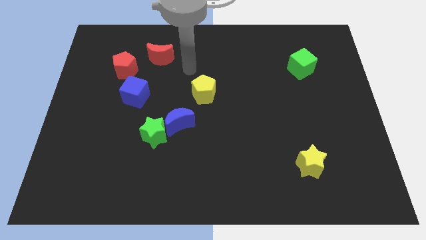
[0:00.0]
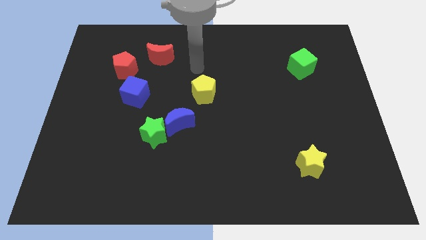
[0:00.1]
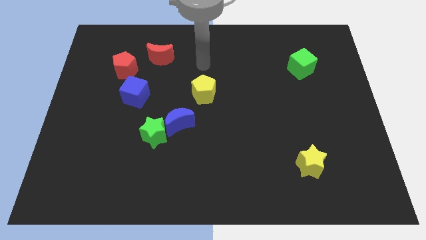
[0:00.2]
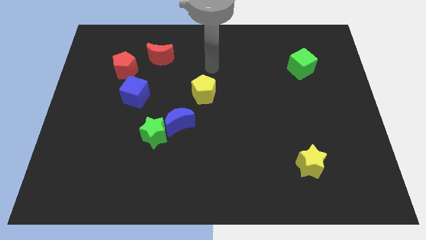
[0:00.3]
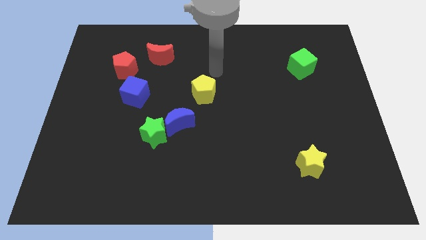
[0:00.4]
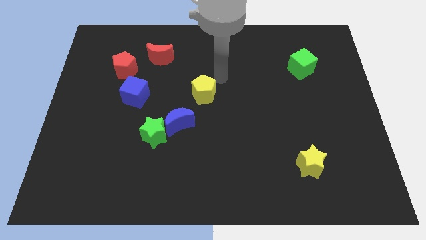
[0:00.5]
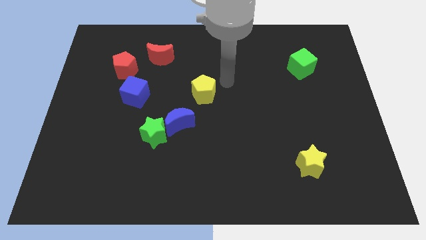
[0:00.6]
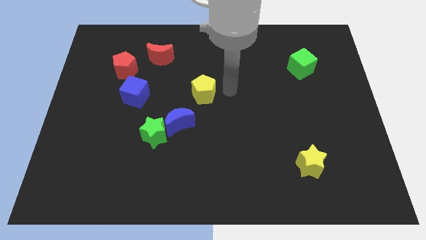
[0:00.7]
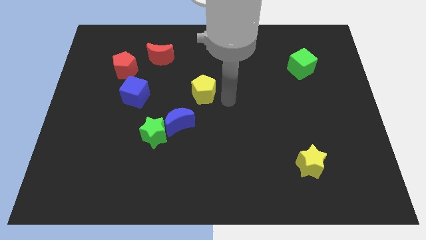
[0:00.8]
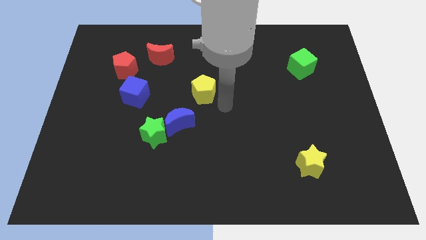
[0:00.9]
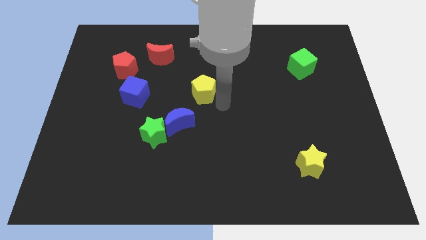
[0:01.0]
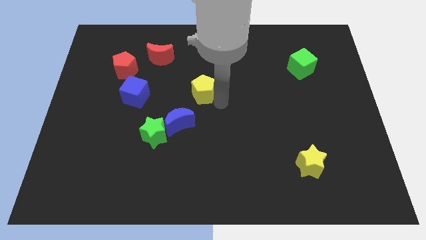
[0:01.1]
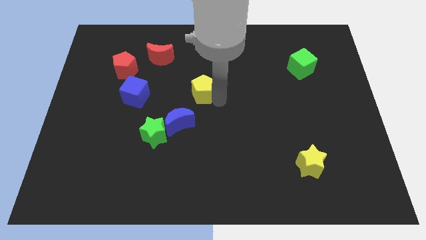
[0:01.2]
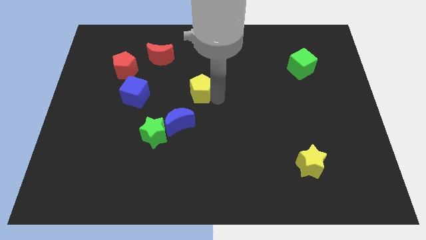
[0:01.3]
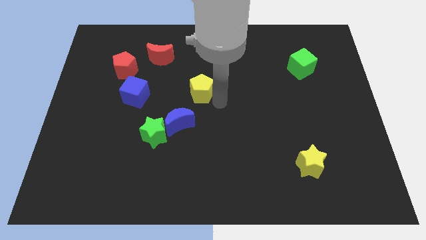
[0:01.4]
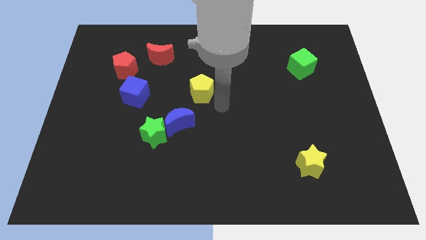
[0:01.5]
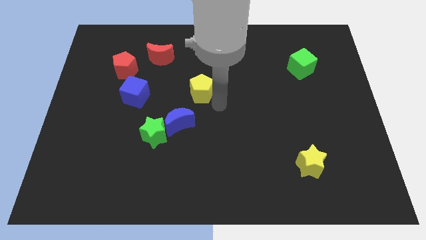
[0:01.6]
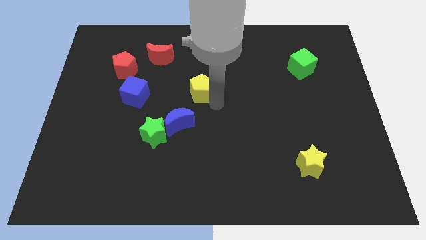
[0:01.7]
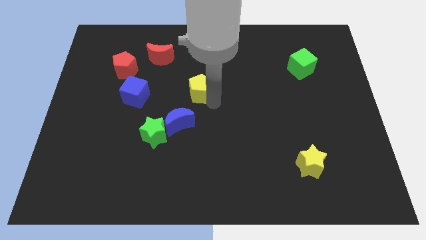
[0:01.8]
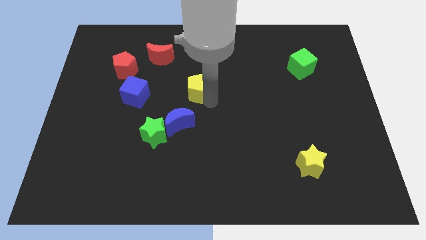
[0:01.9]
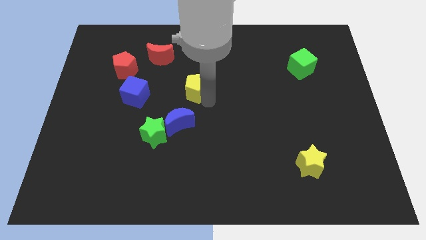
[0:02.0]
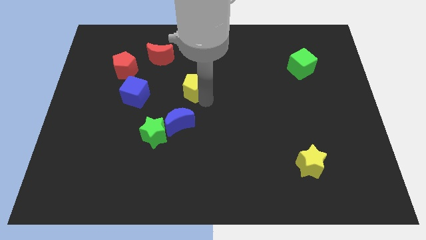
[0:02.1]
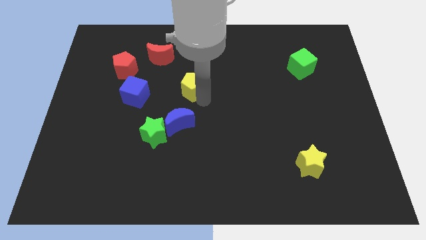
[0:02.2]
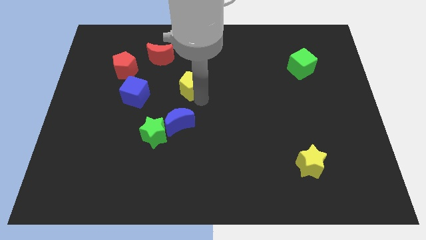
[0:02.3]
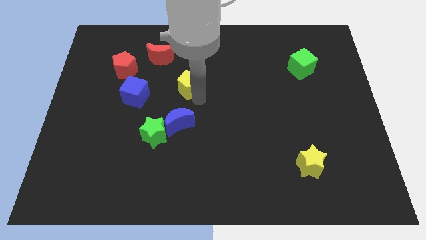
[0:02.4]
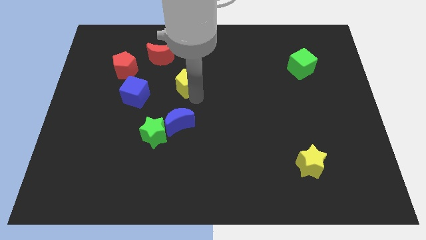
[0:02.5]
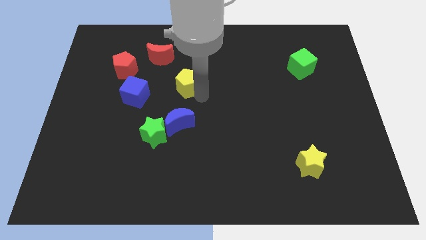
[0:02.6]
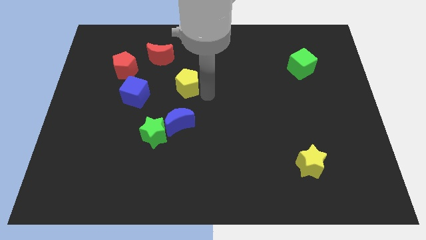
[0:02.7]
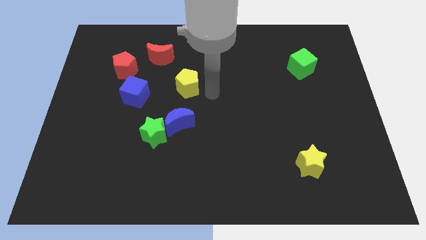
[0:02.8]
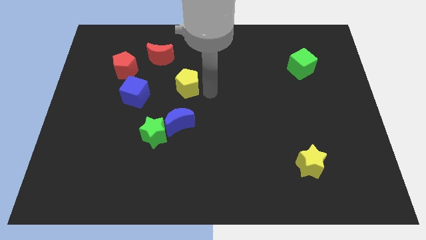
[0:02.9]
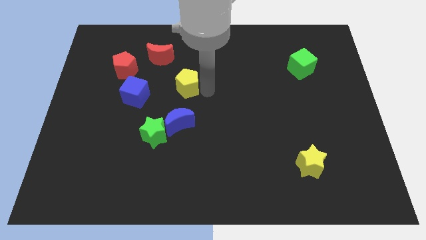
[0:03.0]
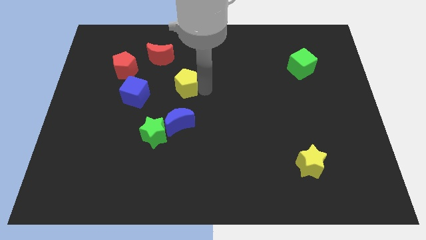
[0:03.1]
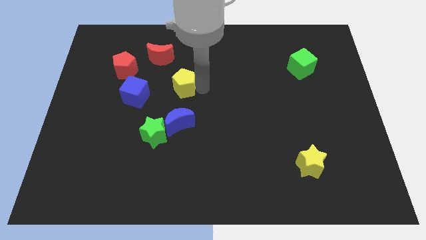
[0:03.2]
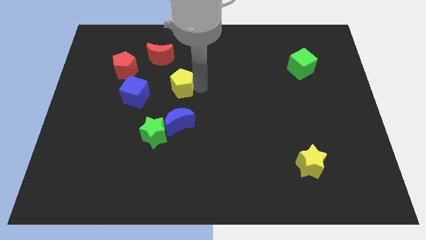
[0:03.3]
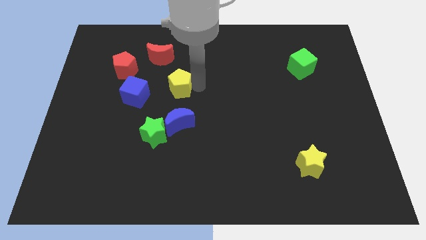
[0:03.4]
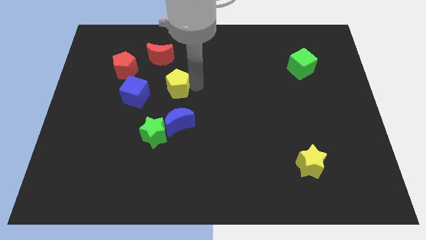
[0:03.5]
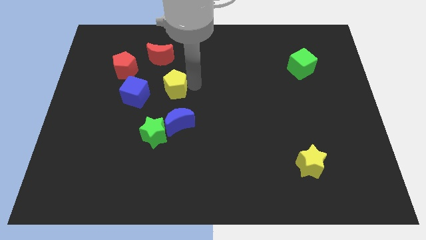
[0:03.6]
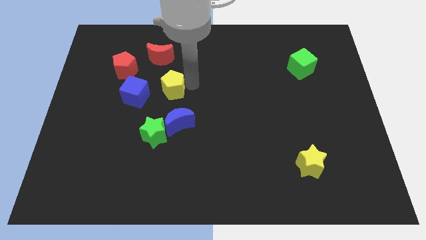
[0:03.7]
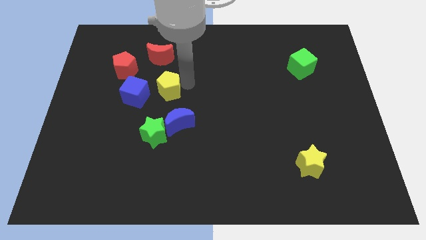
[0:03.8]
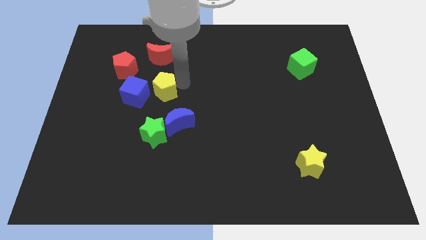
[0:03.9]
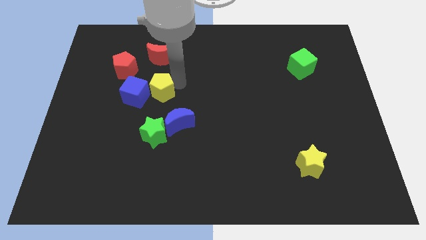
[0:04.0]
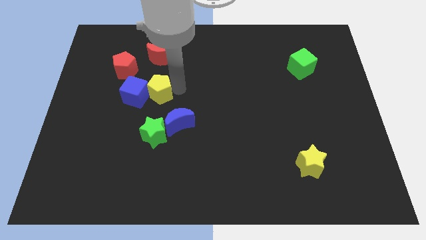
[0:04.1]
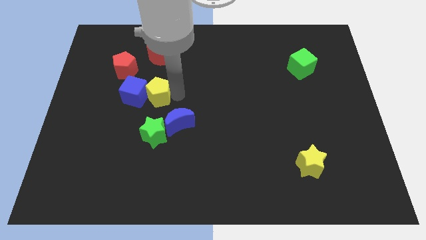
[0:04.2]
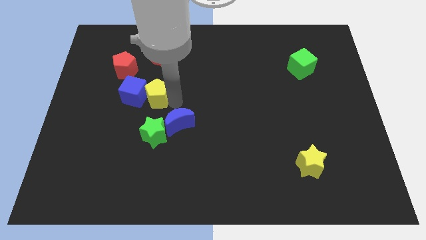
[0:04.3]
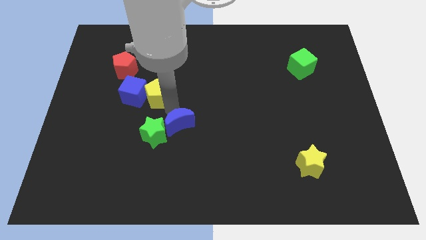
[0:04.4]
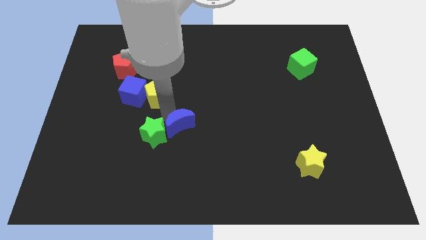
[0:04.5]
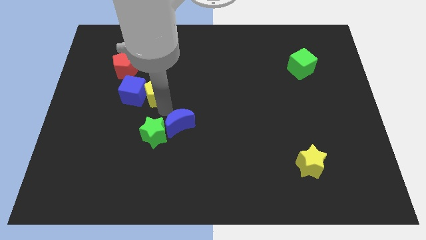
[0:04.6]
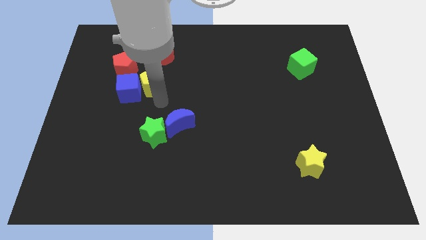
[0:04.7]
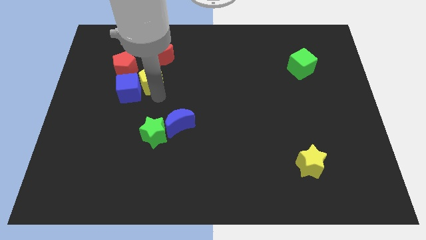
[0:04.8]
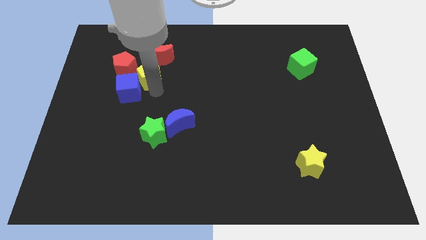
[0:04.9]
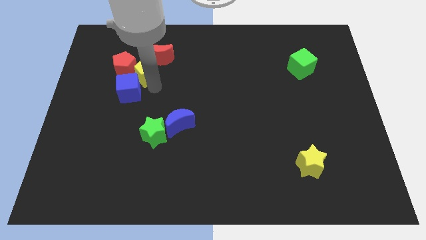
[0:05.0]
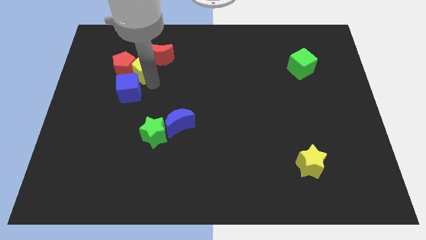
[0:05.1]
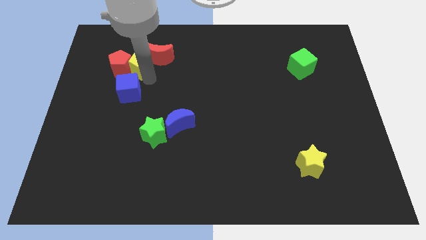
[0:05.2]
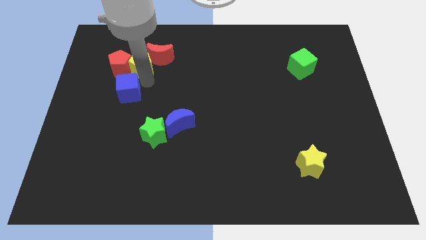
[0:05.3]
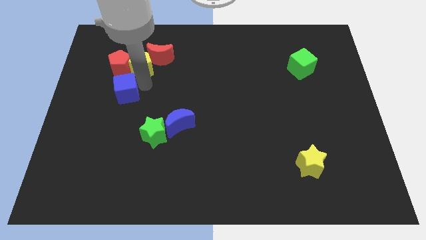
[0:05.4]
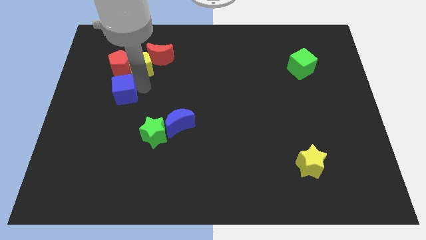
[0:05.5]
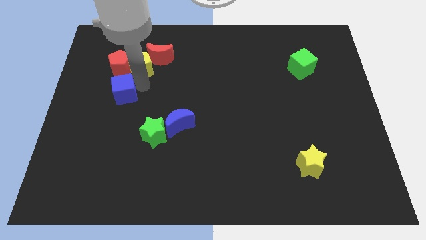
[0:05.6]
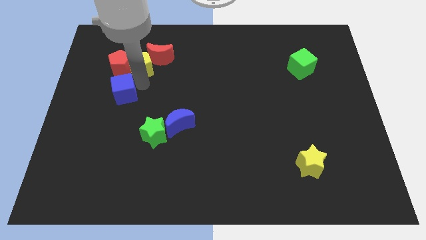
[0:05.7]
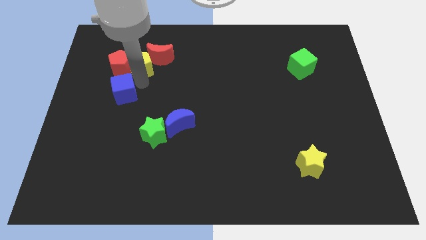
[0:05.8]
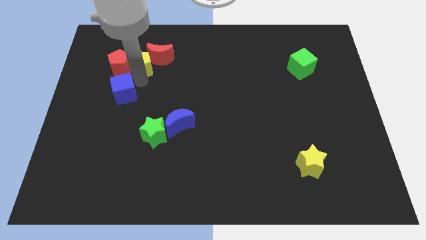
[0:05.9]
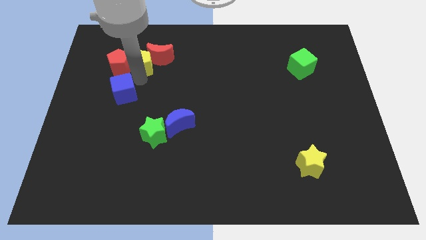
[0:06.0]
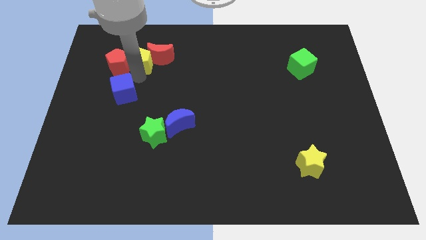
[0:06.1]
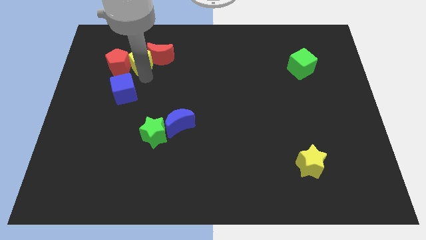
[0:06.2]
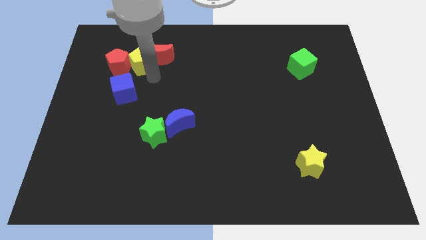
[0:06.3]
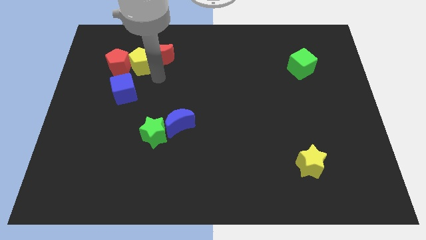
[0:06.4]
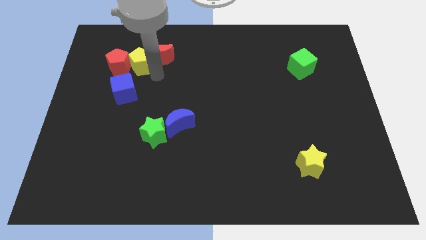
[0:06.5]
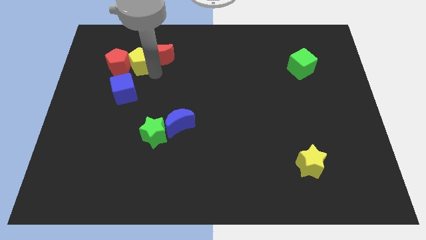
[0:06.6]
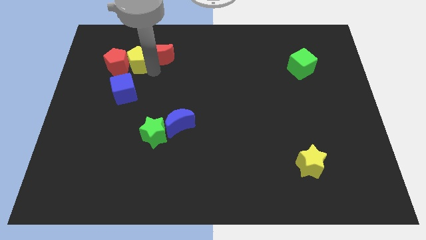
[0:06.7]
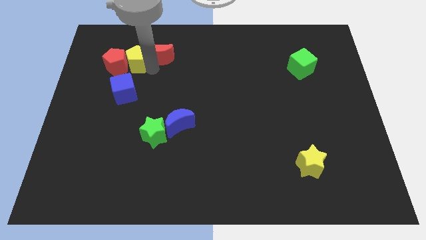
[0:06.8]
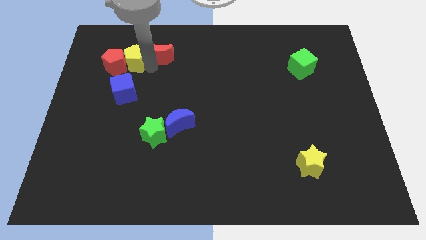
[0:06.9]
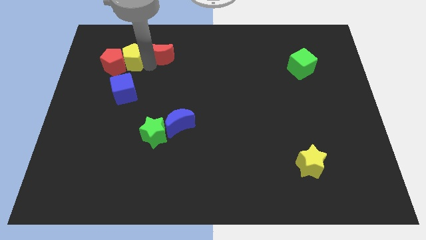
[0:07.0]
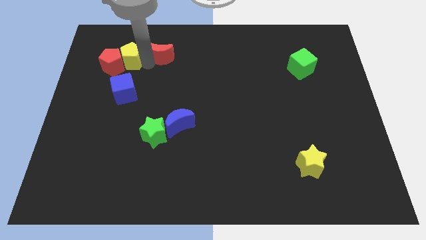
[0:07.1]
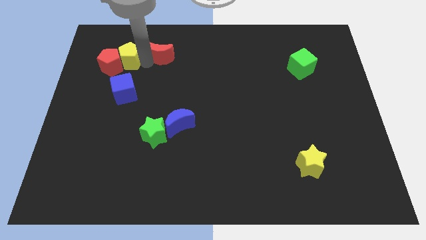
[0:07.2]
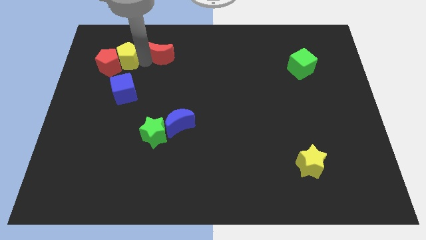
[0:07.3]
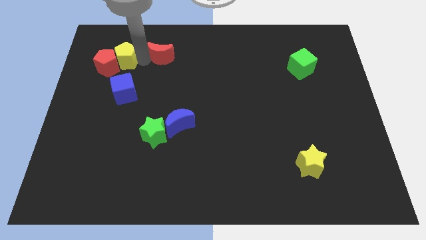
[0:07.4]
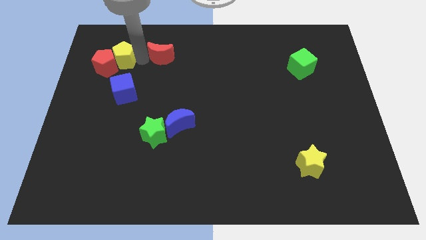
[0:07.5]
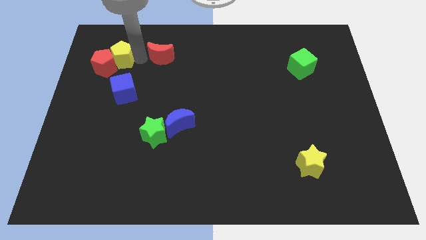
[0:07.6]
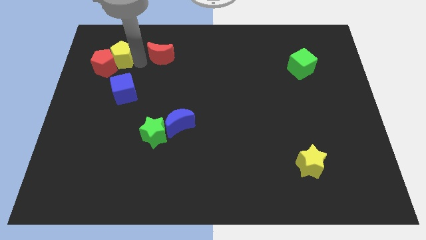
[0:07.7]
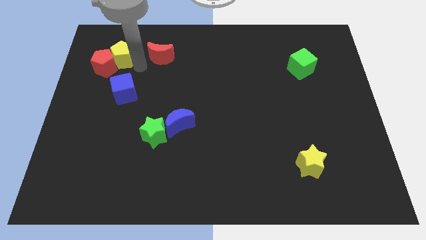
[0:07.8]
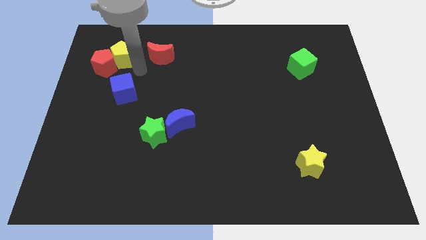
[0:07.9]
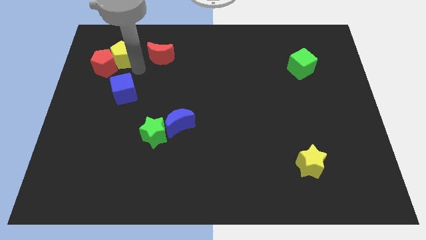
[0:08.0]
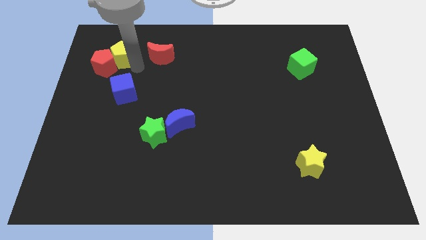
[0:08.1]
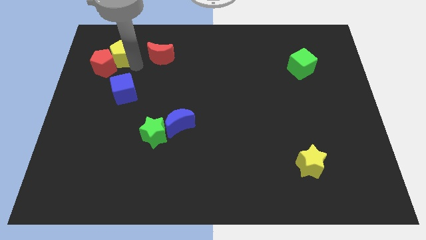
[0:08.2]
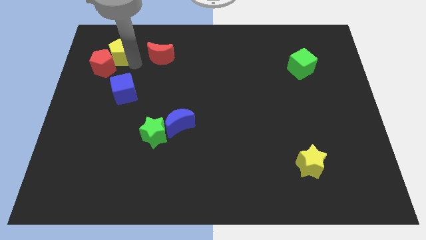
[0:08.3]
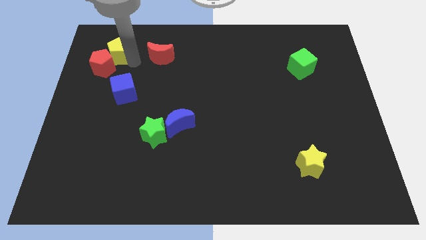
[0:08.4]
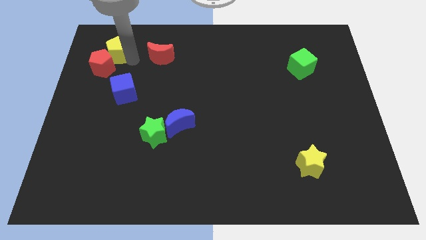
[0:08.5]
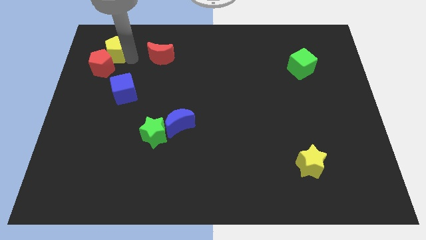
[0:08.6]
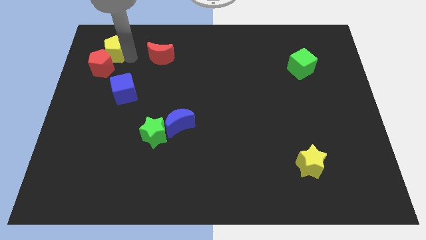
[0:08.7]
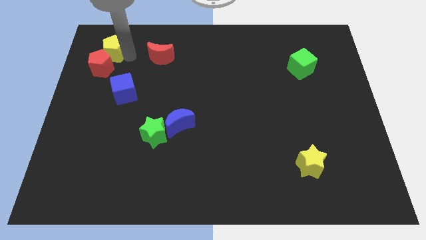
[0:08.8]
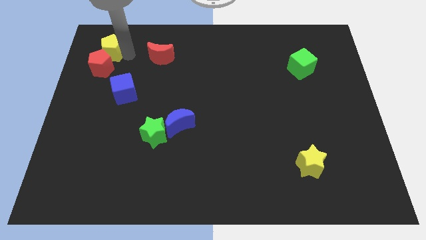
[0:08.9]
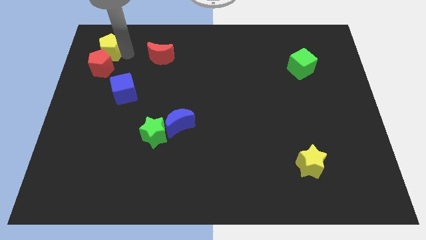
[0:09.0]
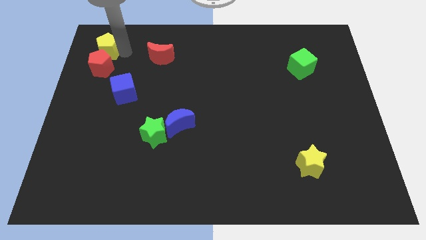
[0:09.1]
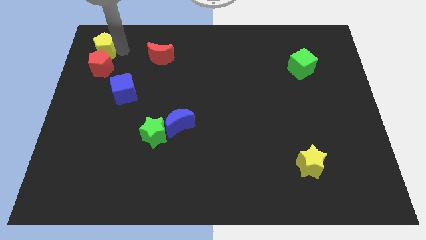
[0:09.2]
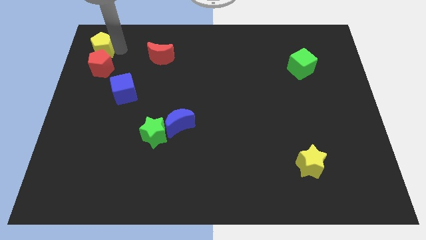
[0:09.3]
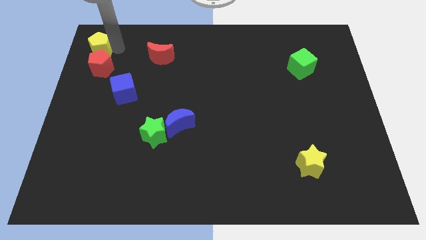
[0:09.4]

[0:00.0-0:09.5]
slide the yellow pentagon to the top left
